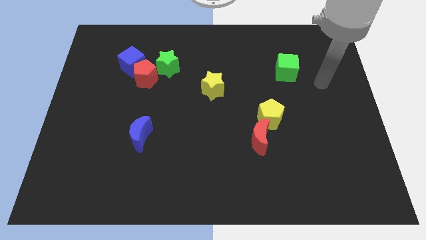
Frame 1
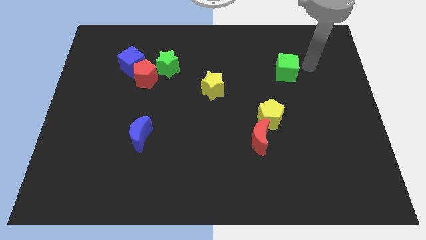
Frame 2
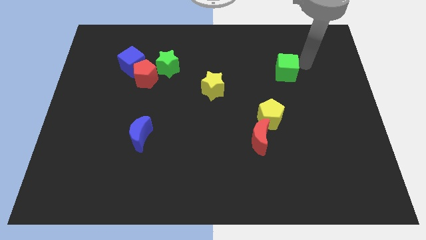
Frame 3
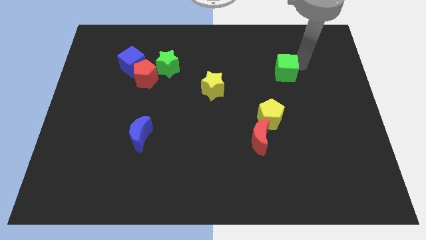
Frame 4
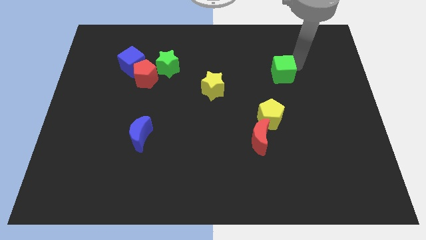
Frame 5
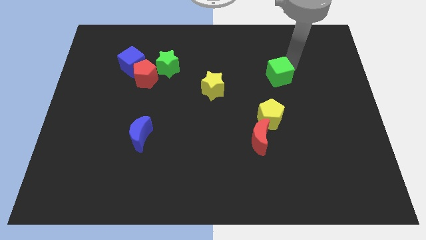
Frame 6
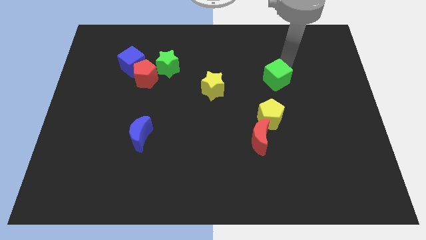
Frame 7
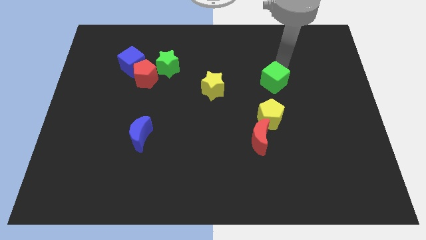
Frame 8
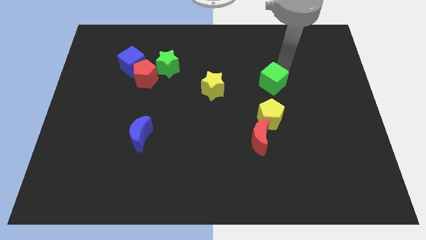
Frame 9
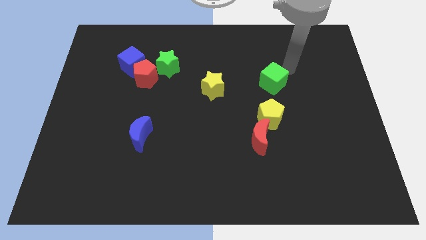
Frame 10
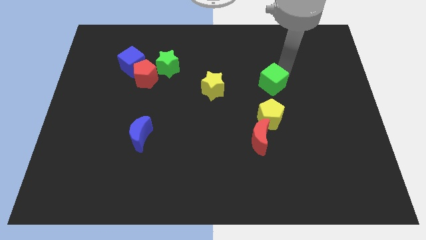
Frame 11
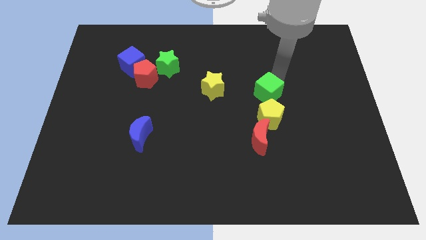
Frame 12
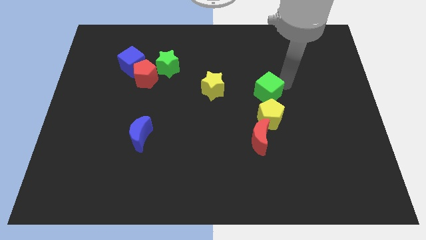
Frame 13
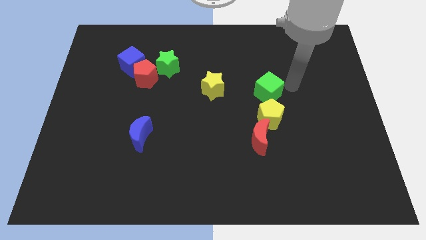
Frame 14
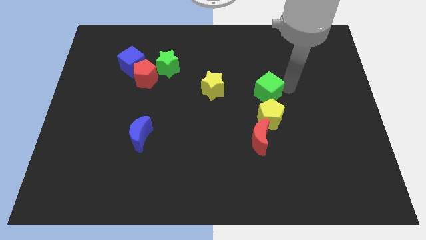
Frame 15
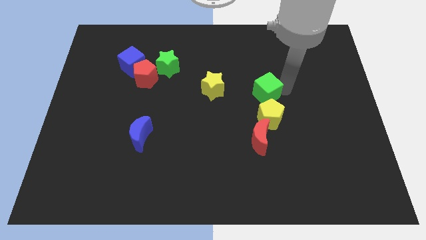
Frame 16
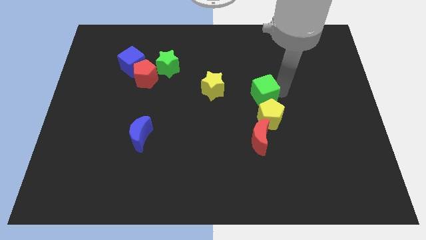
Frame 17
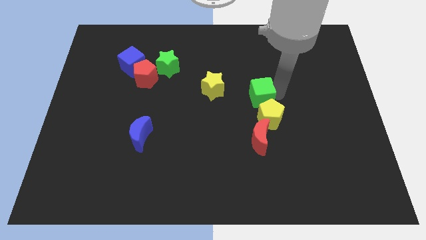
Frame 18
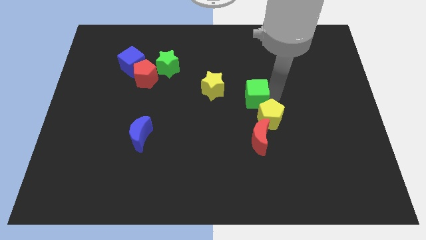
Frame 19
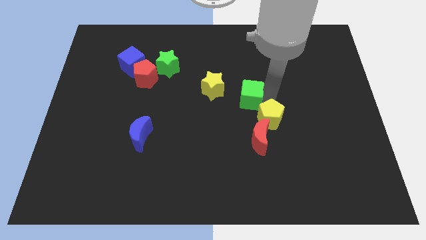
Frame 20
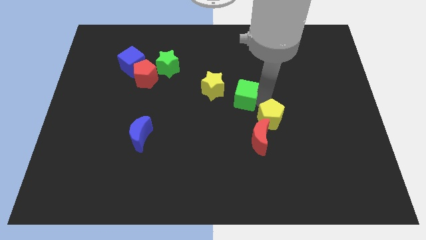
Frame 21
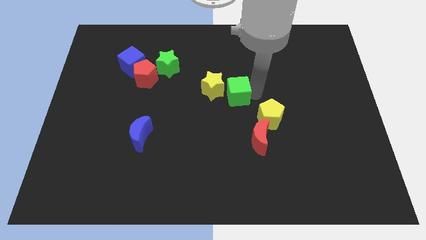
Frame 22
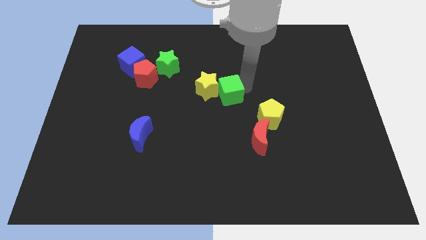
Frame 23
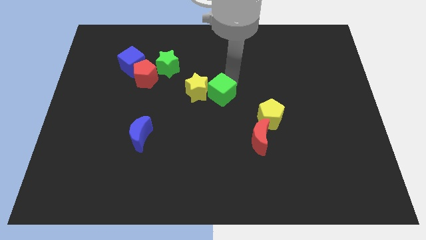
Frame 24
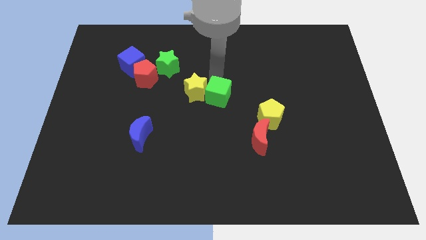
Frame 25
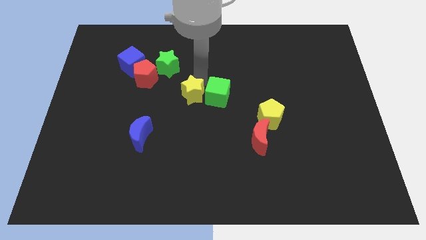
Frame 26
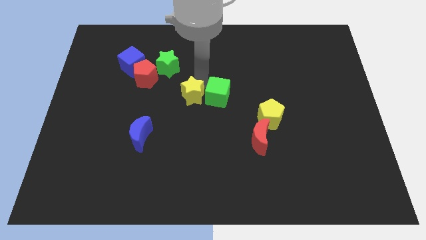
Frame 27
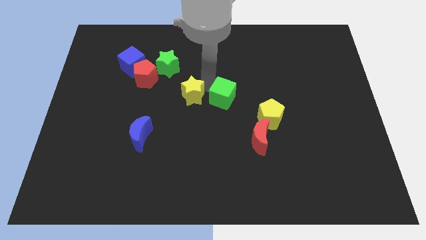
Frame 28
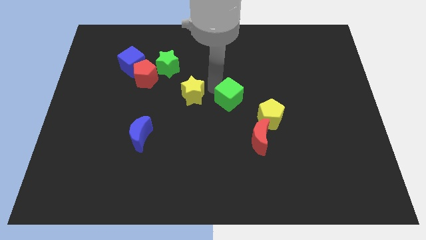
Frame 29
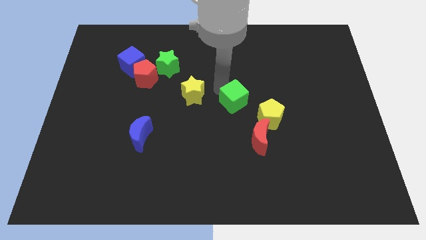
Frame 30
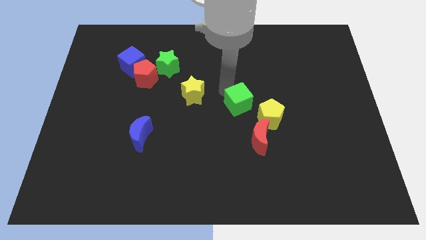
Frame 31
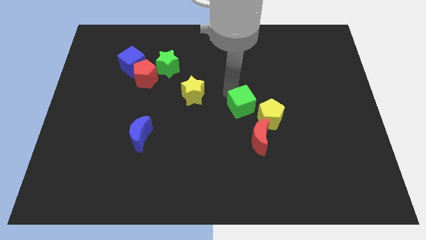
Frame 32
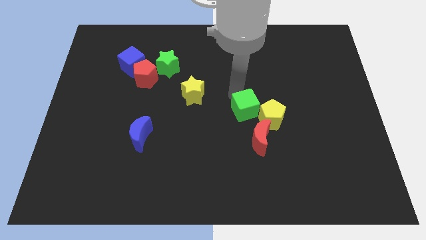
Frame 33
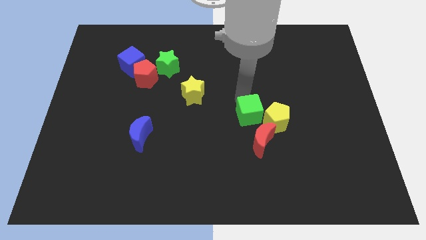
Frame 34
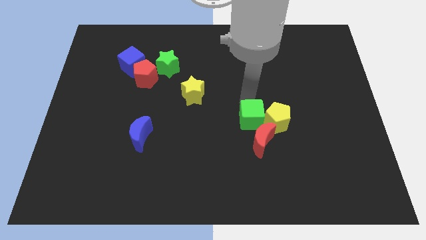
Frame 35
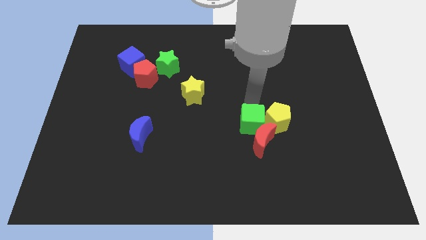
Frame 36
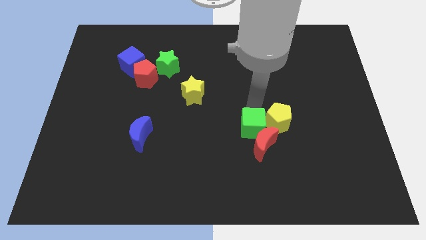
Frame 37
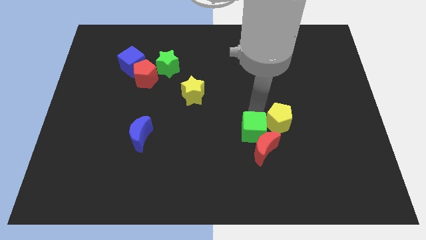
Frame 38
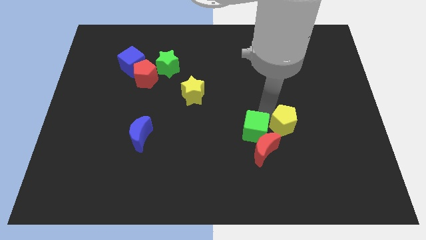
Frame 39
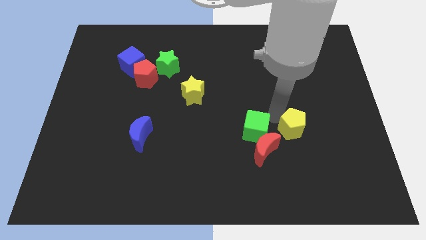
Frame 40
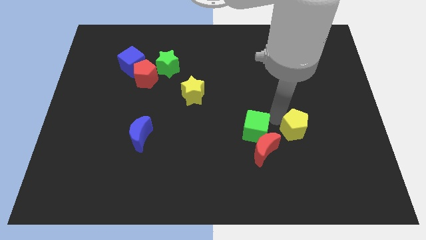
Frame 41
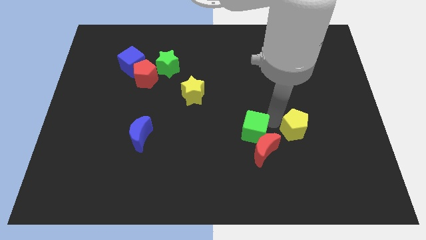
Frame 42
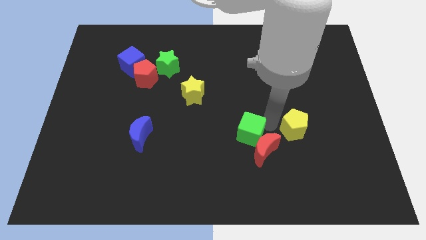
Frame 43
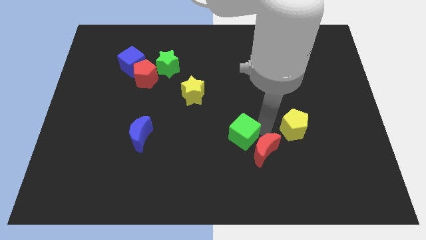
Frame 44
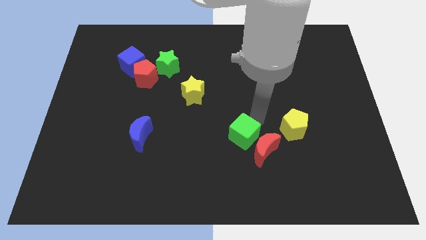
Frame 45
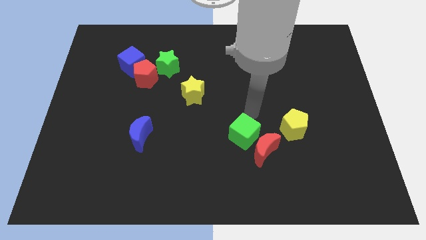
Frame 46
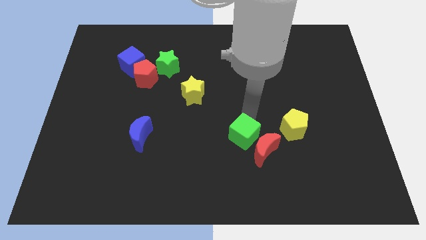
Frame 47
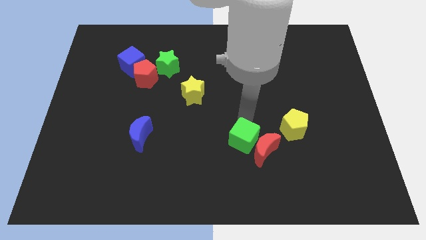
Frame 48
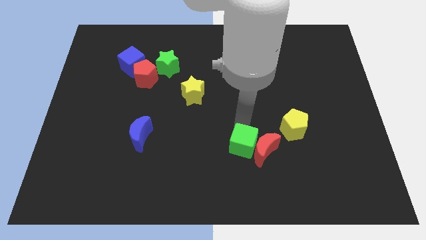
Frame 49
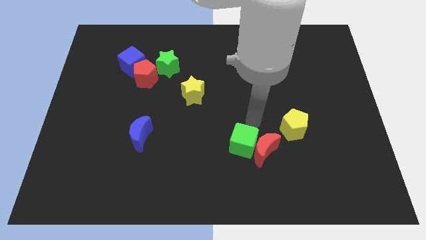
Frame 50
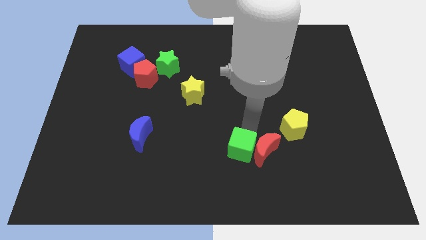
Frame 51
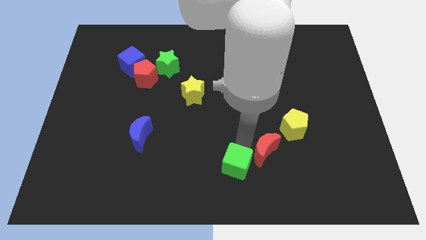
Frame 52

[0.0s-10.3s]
slide the green cube to the bottom
